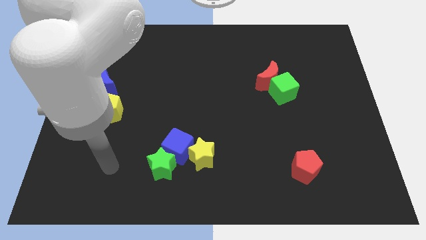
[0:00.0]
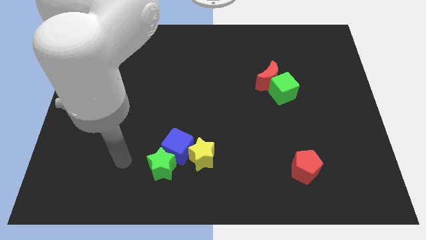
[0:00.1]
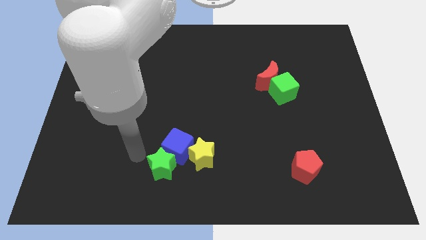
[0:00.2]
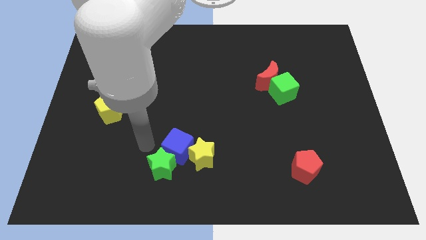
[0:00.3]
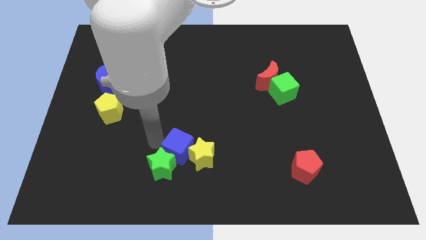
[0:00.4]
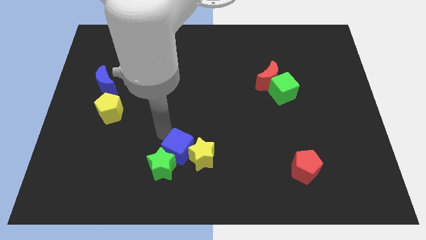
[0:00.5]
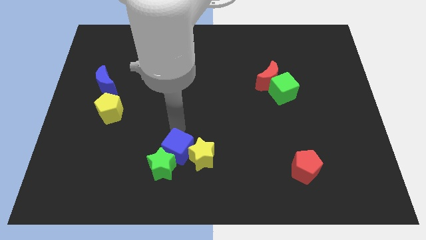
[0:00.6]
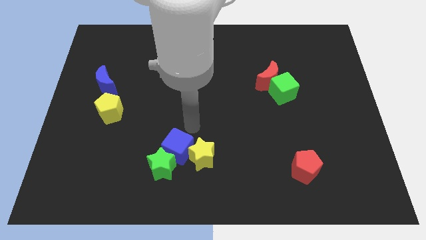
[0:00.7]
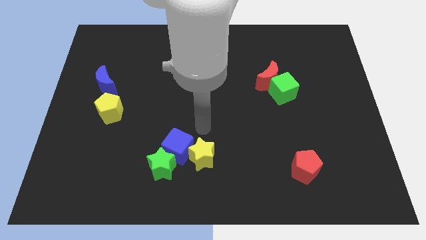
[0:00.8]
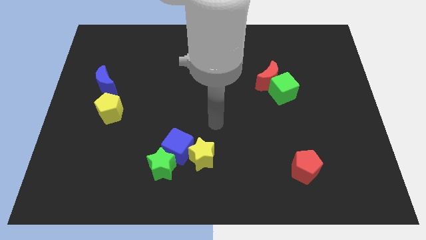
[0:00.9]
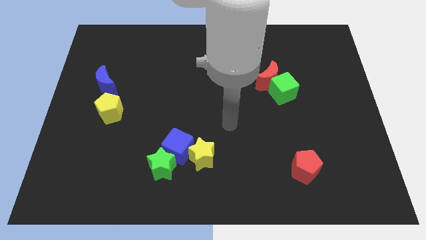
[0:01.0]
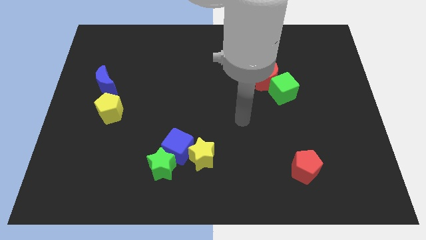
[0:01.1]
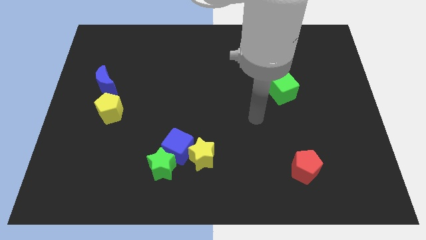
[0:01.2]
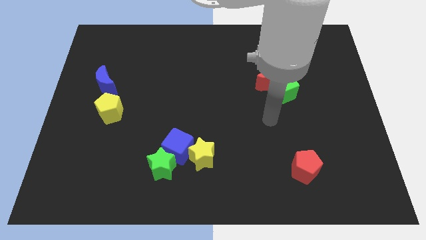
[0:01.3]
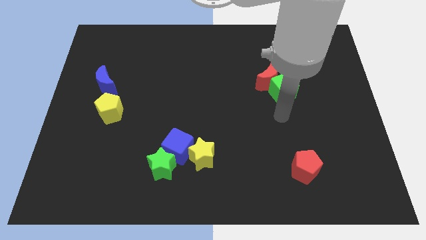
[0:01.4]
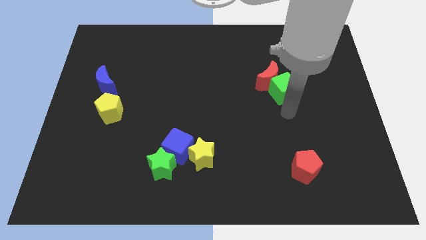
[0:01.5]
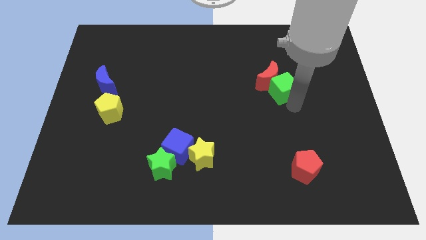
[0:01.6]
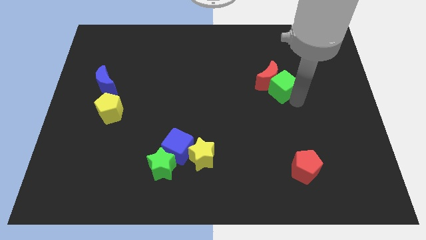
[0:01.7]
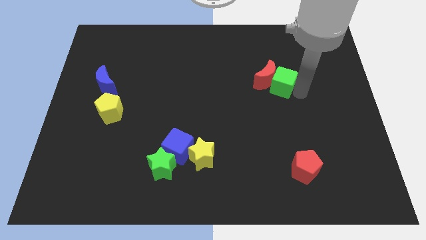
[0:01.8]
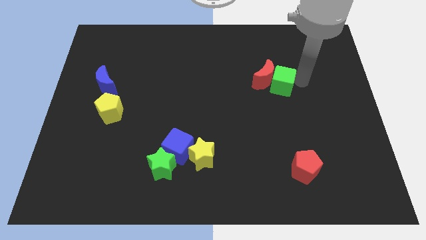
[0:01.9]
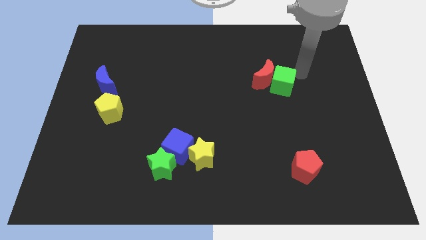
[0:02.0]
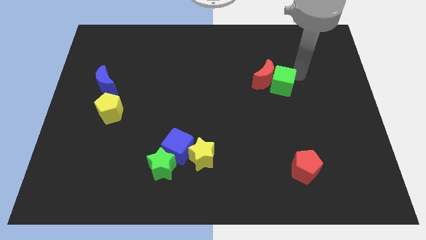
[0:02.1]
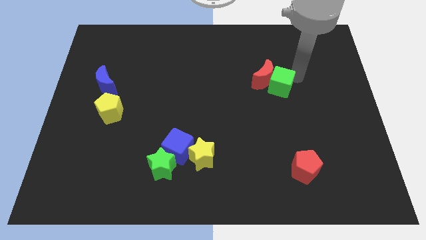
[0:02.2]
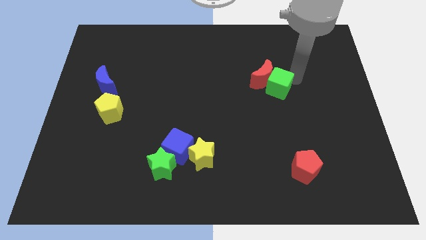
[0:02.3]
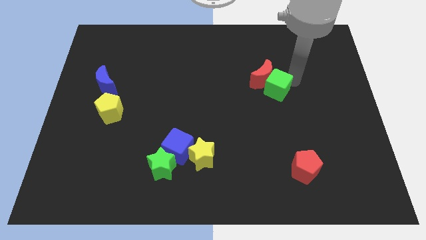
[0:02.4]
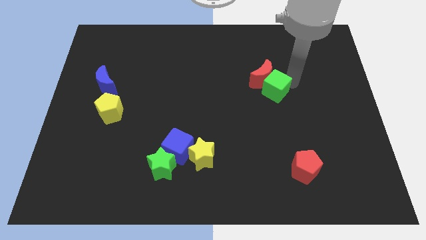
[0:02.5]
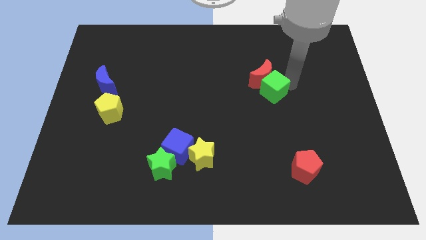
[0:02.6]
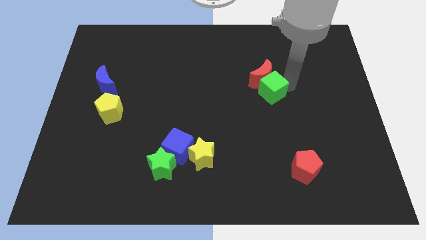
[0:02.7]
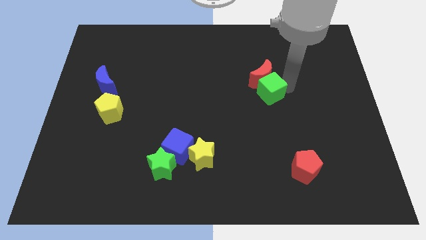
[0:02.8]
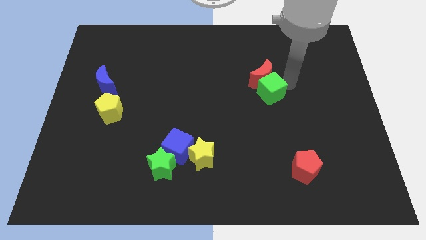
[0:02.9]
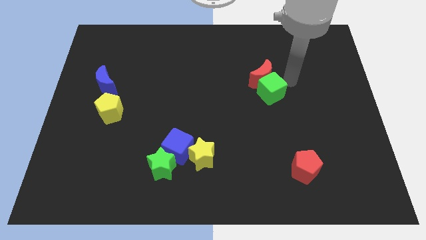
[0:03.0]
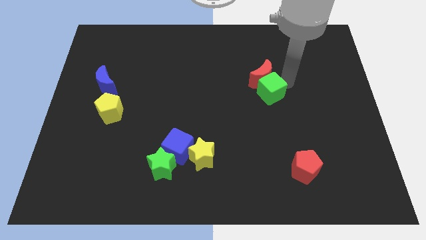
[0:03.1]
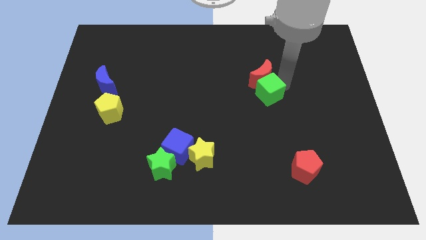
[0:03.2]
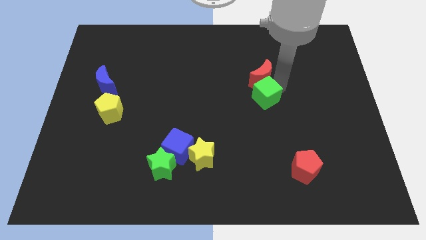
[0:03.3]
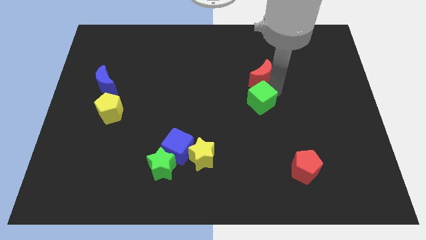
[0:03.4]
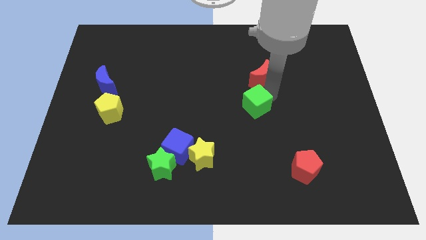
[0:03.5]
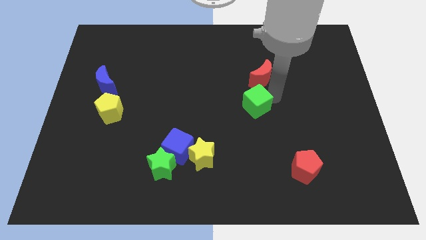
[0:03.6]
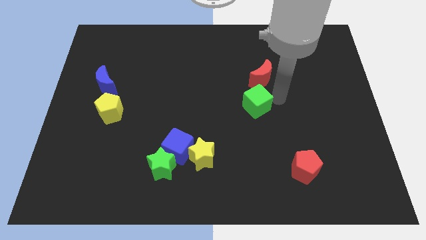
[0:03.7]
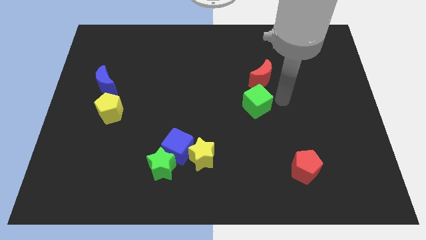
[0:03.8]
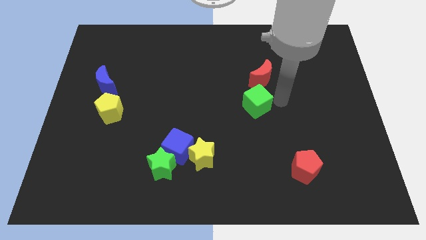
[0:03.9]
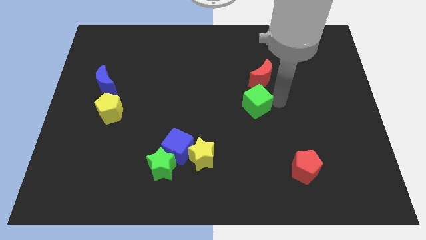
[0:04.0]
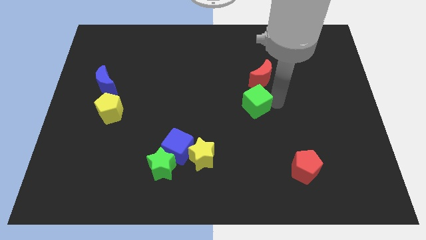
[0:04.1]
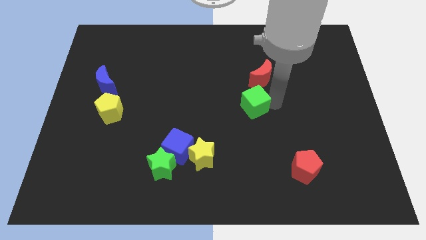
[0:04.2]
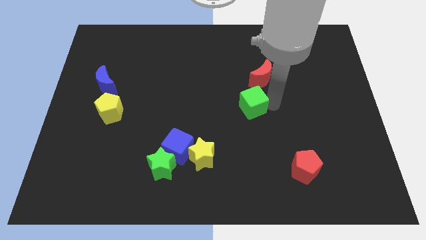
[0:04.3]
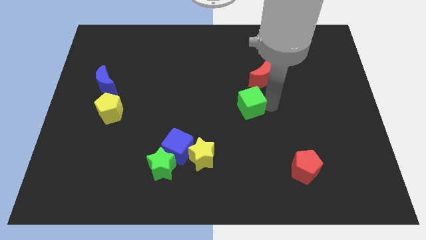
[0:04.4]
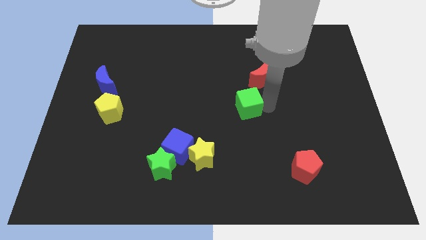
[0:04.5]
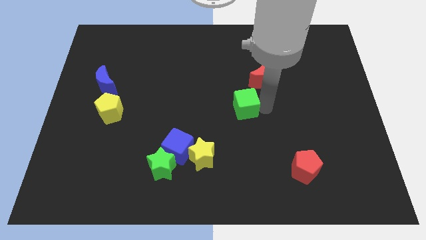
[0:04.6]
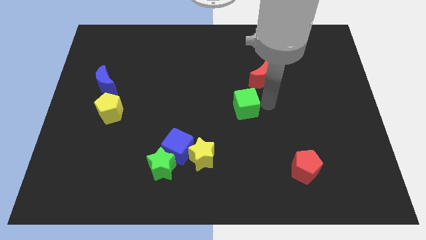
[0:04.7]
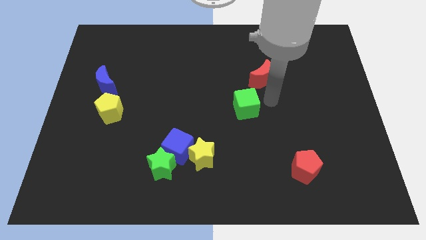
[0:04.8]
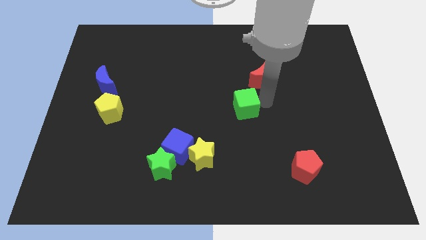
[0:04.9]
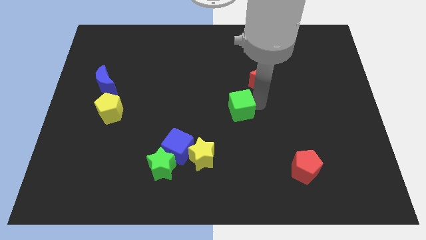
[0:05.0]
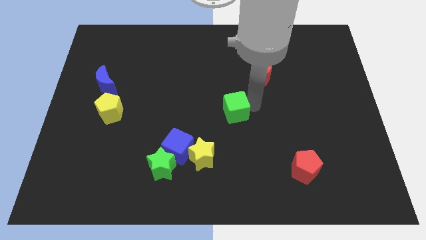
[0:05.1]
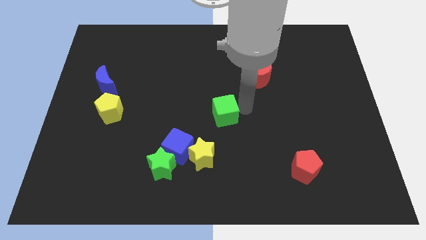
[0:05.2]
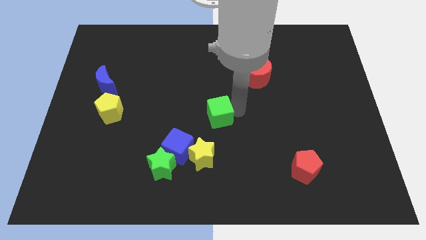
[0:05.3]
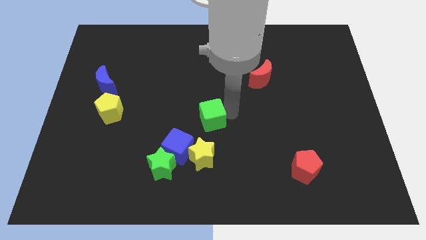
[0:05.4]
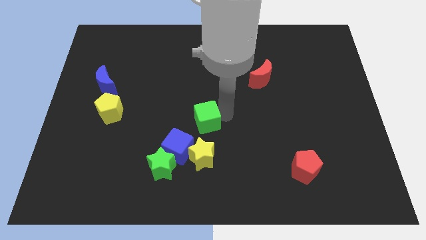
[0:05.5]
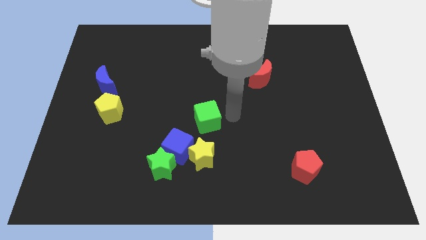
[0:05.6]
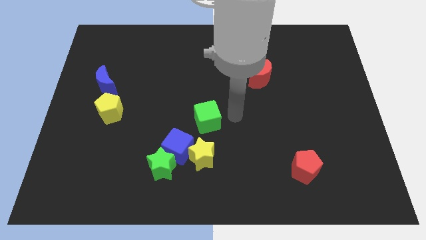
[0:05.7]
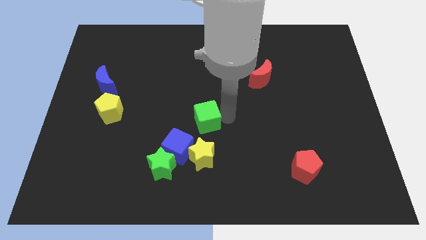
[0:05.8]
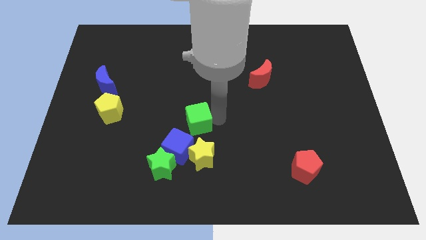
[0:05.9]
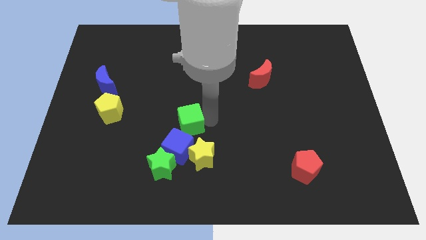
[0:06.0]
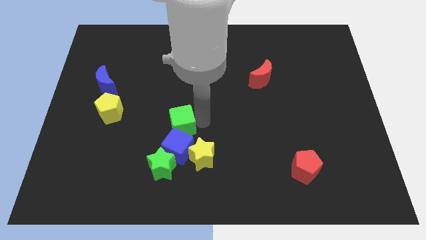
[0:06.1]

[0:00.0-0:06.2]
put the green cube above the green star

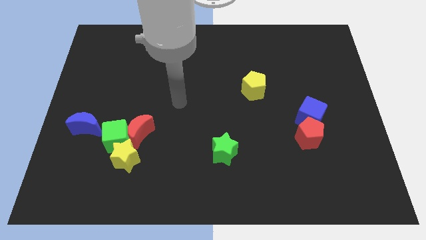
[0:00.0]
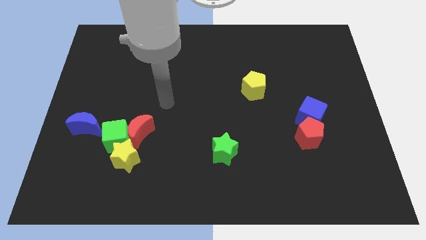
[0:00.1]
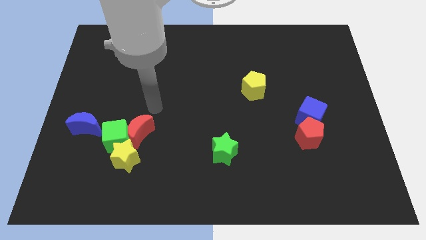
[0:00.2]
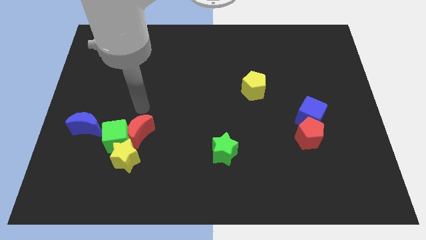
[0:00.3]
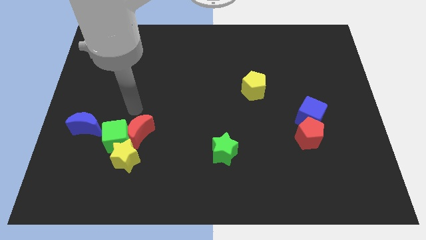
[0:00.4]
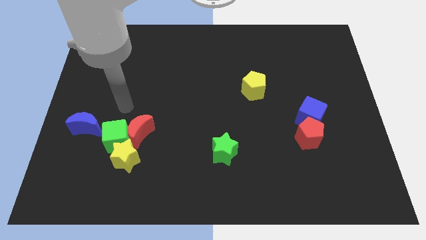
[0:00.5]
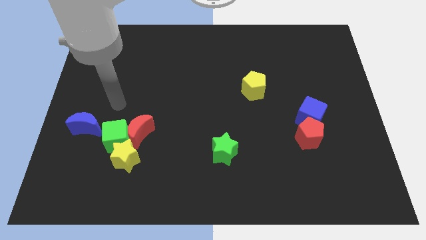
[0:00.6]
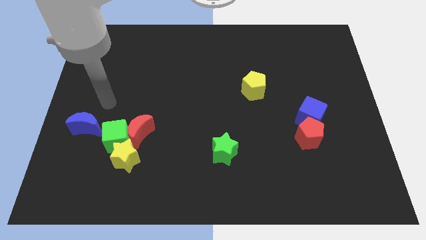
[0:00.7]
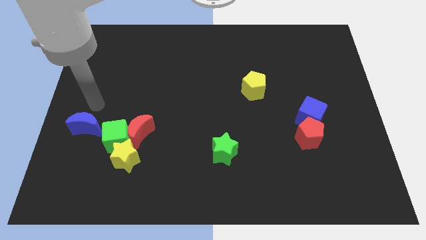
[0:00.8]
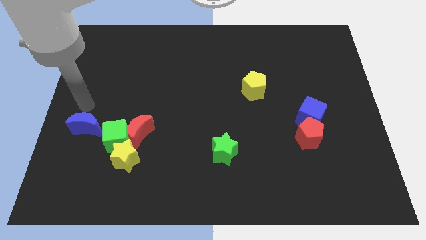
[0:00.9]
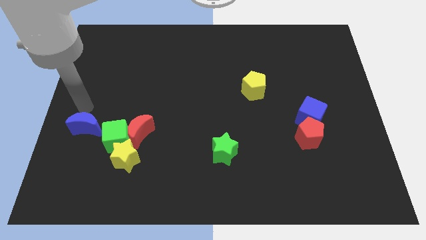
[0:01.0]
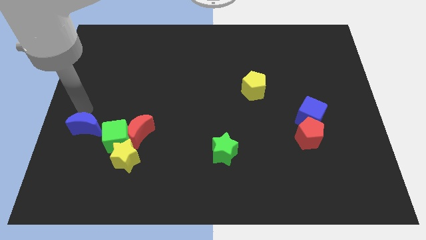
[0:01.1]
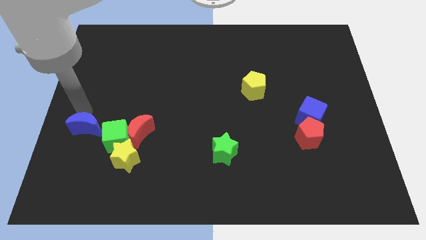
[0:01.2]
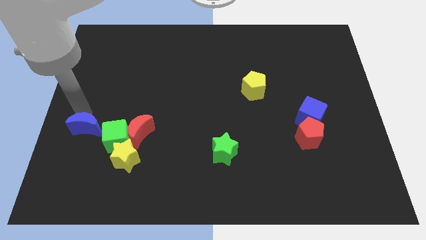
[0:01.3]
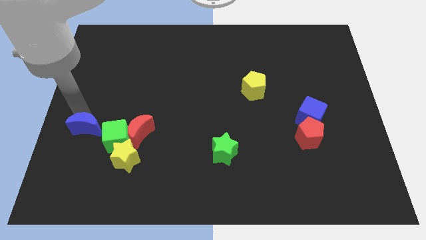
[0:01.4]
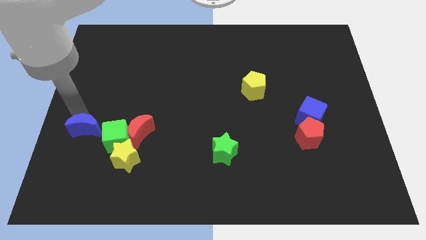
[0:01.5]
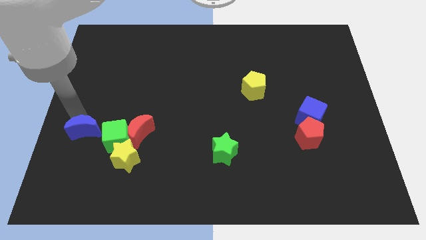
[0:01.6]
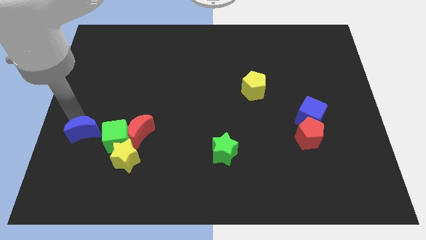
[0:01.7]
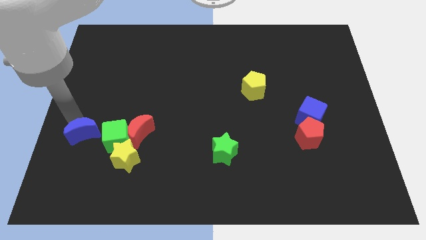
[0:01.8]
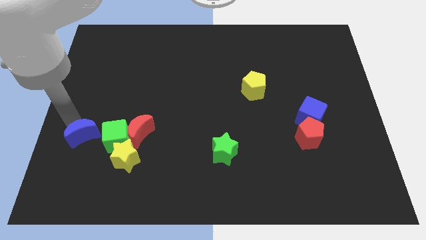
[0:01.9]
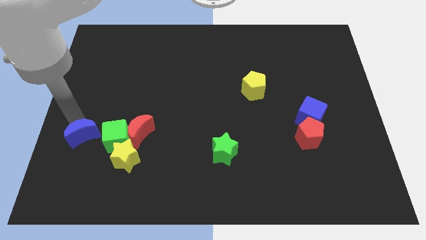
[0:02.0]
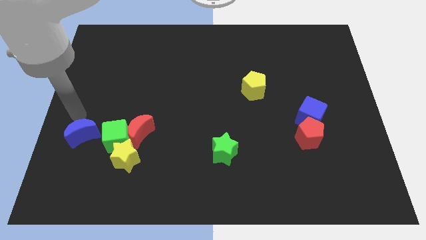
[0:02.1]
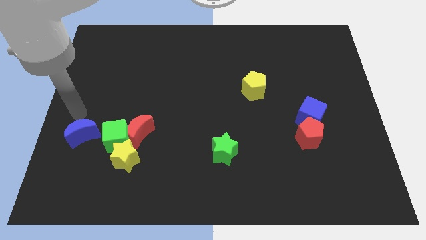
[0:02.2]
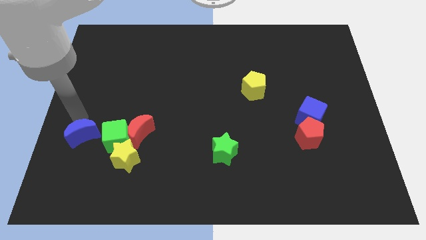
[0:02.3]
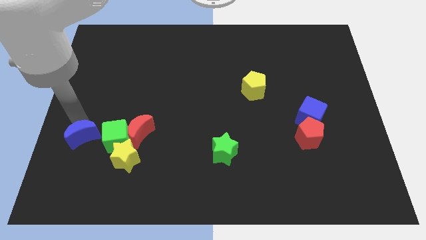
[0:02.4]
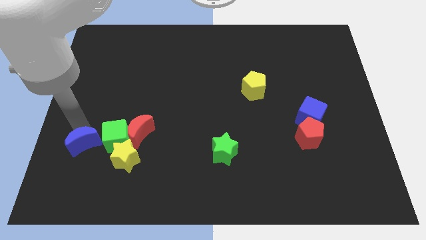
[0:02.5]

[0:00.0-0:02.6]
slide the blue moon to the bottom left side of the green cube
